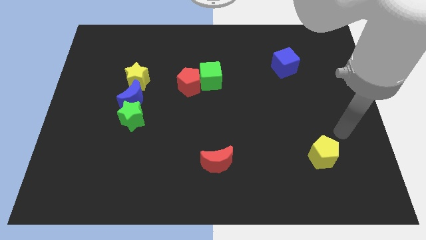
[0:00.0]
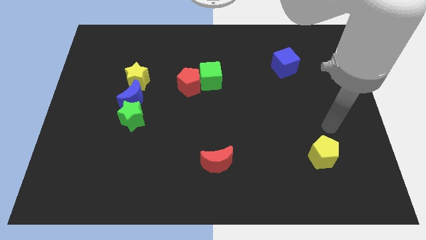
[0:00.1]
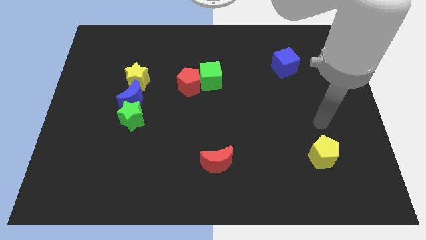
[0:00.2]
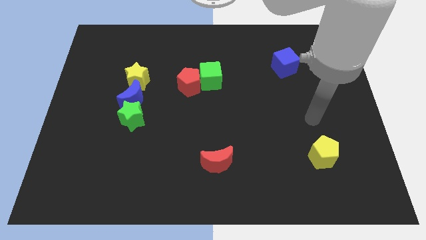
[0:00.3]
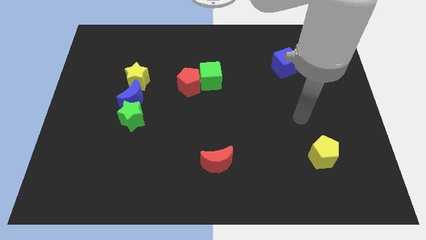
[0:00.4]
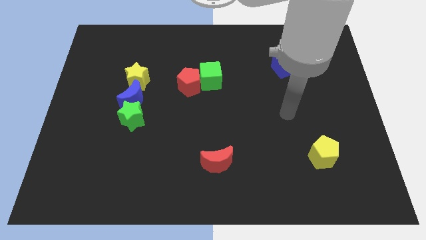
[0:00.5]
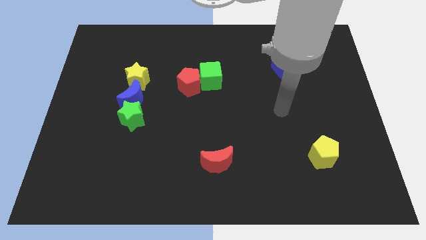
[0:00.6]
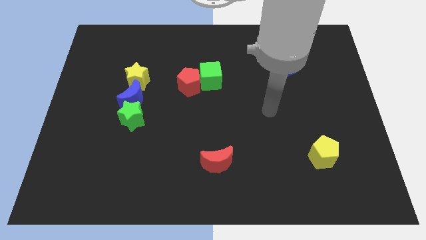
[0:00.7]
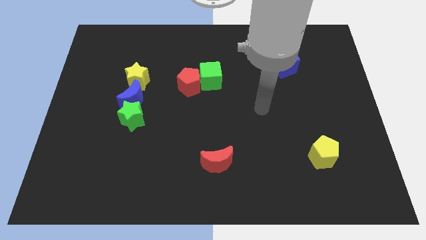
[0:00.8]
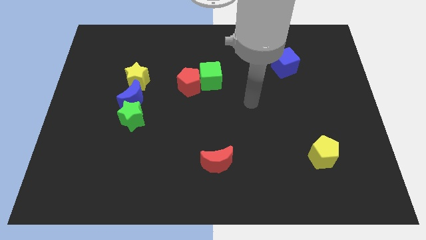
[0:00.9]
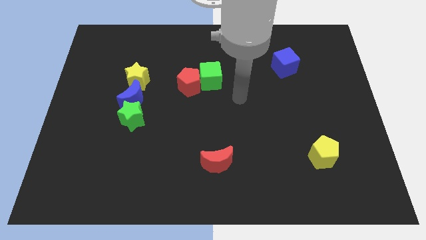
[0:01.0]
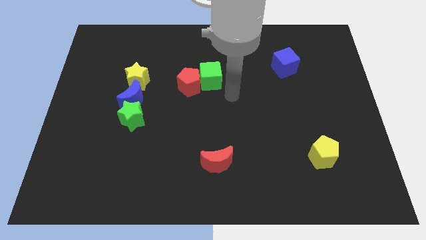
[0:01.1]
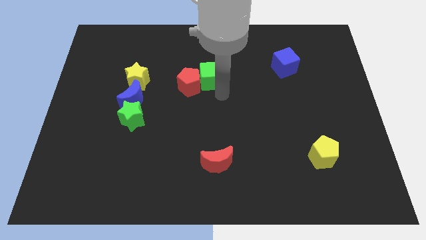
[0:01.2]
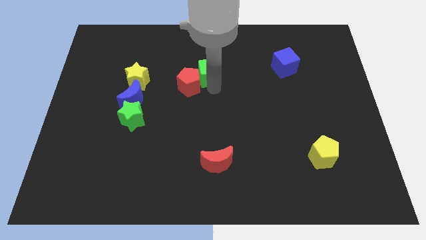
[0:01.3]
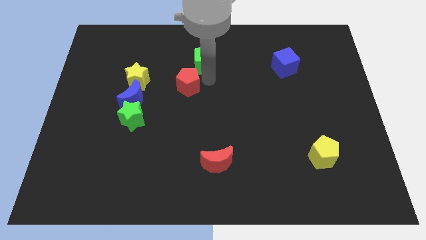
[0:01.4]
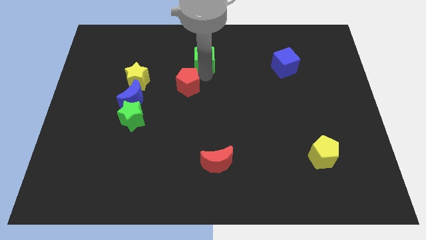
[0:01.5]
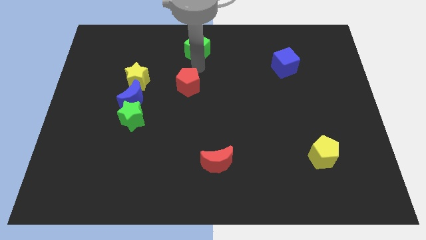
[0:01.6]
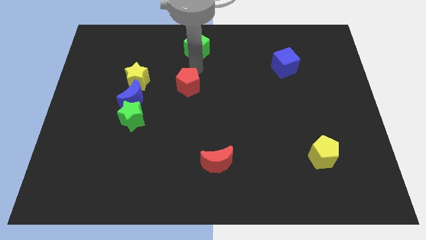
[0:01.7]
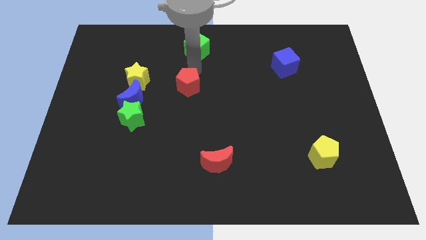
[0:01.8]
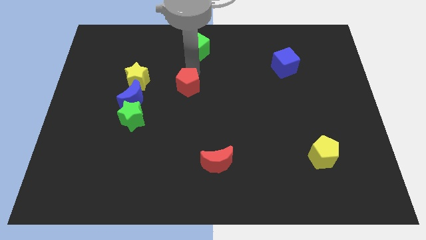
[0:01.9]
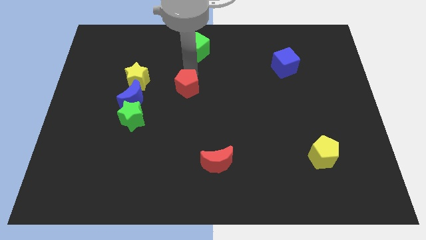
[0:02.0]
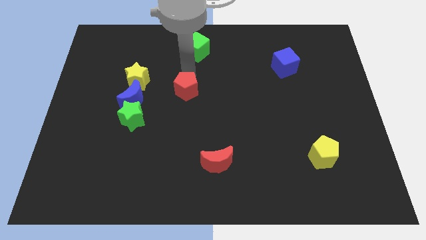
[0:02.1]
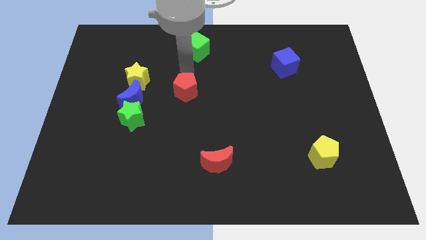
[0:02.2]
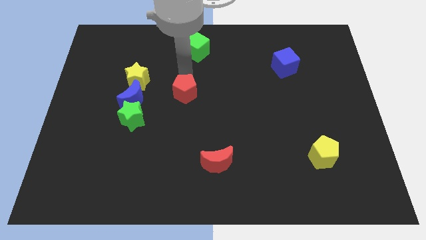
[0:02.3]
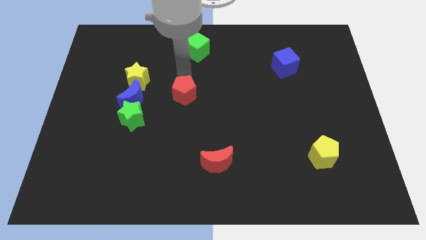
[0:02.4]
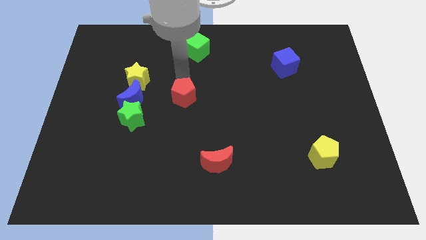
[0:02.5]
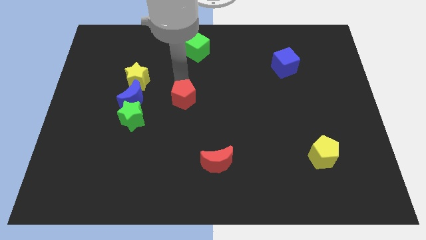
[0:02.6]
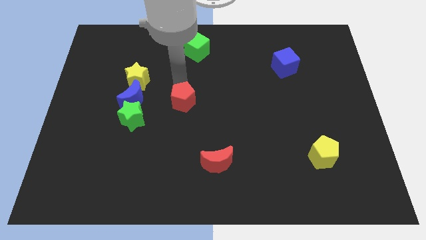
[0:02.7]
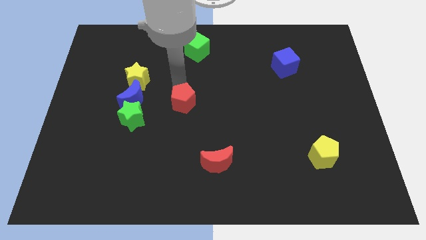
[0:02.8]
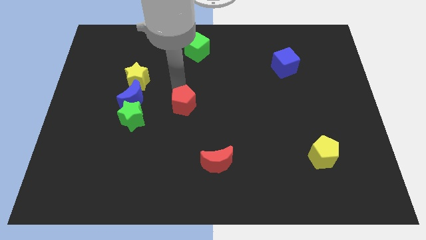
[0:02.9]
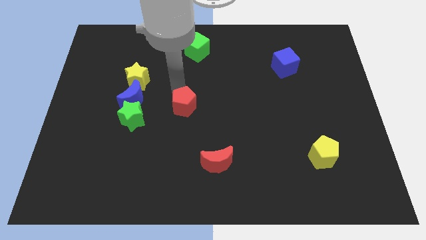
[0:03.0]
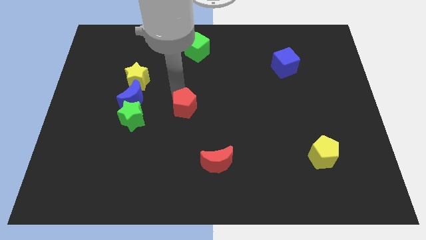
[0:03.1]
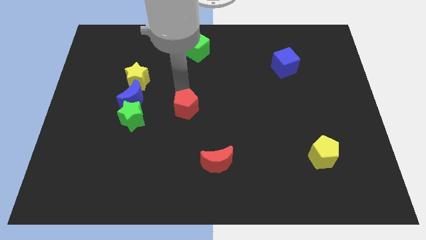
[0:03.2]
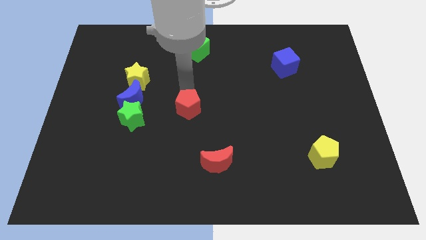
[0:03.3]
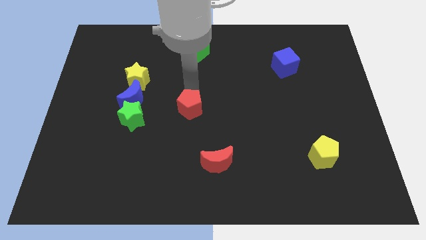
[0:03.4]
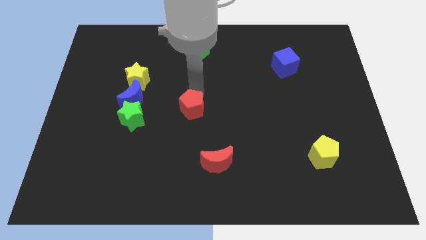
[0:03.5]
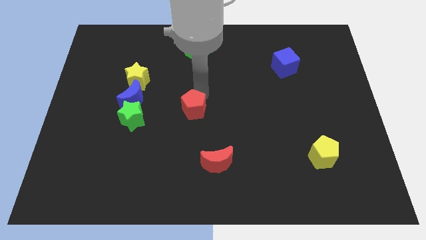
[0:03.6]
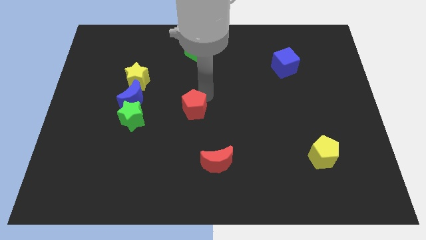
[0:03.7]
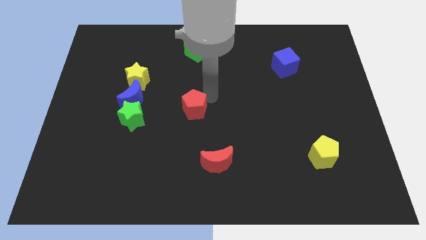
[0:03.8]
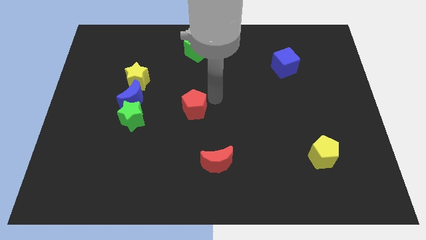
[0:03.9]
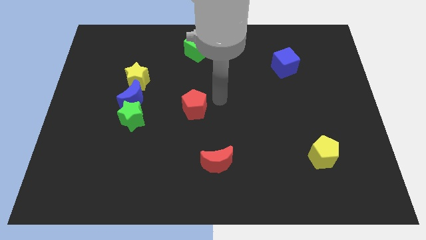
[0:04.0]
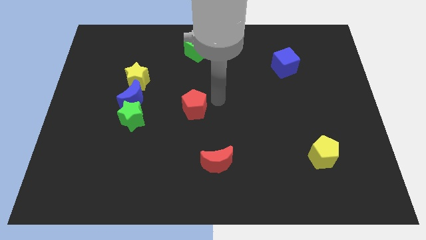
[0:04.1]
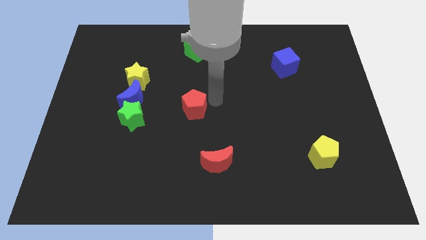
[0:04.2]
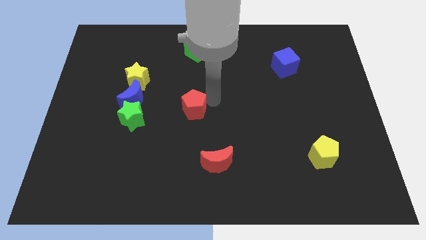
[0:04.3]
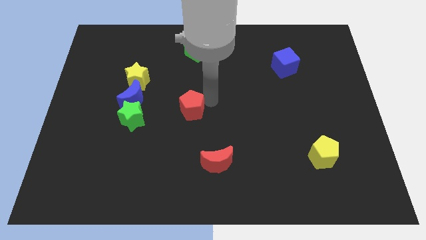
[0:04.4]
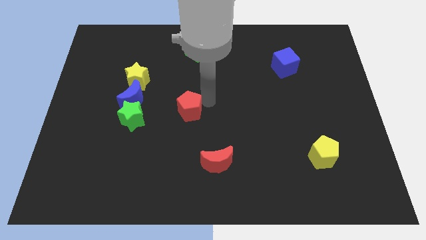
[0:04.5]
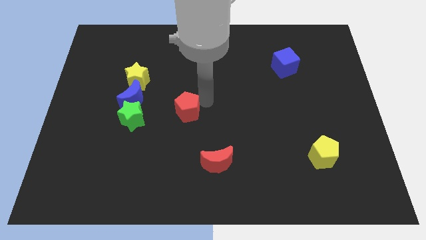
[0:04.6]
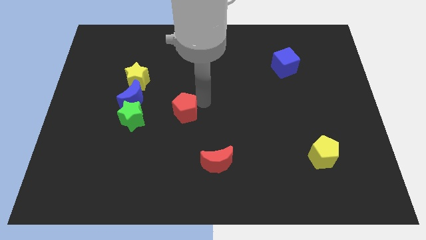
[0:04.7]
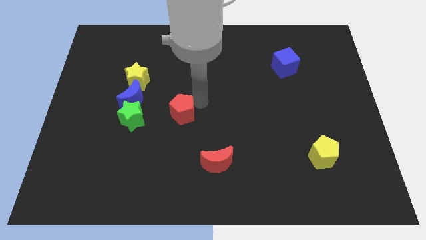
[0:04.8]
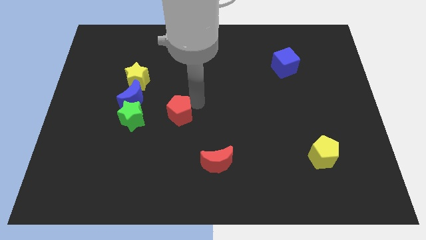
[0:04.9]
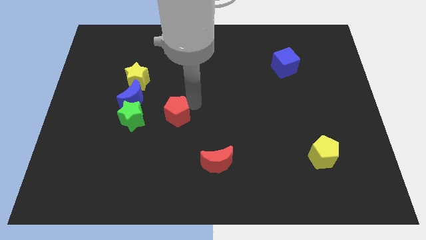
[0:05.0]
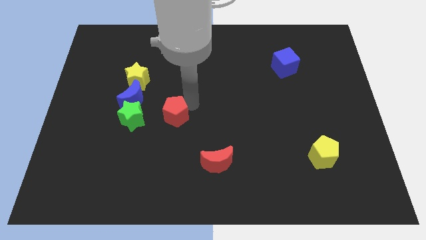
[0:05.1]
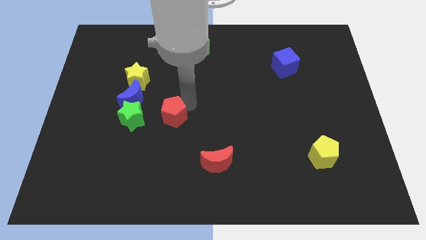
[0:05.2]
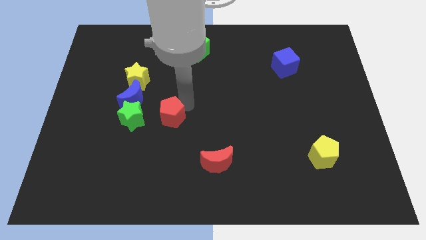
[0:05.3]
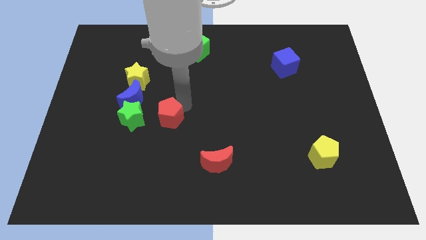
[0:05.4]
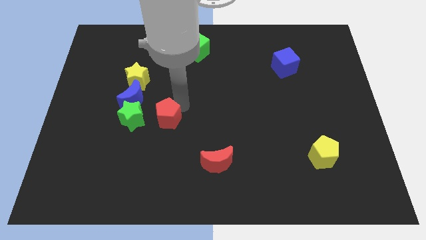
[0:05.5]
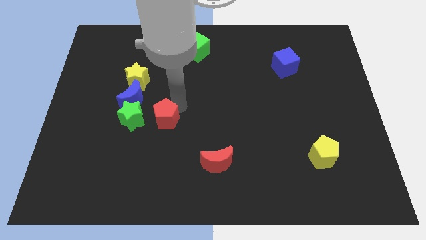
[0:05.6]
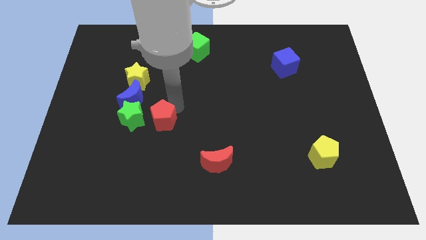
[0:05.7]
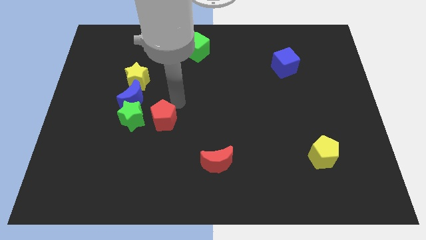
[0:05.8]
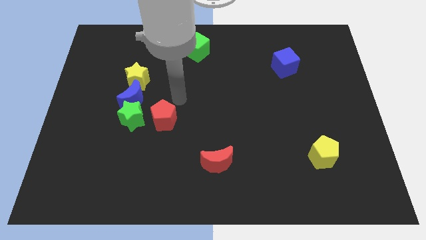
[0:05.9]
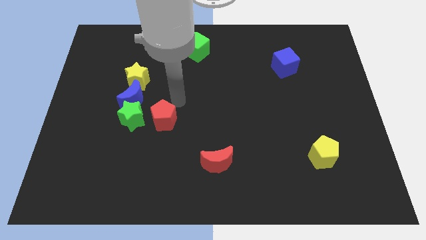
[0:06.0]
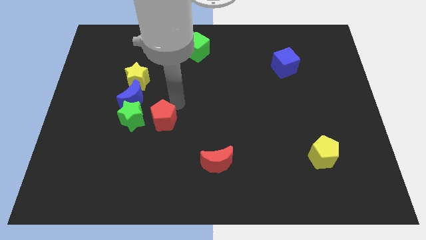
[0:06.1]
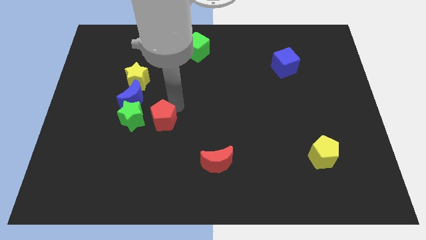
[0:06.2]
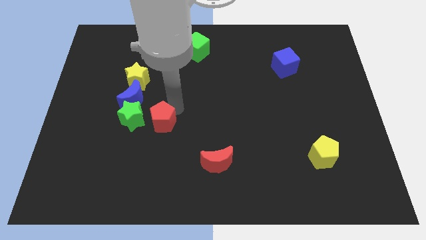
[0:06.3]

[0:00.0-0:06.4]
slide the red pentagon diagonally down and to the right of the green star

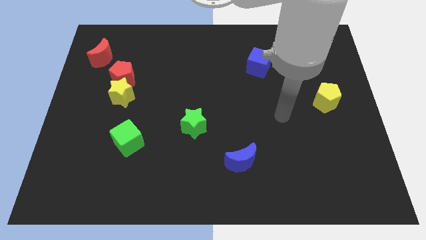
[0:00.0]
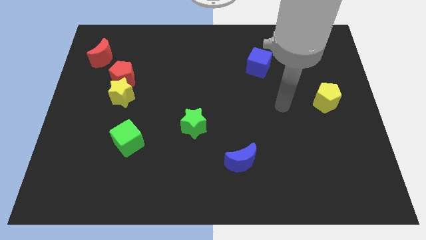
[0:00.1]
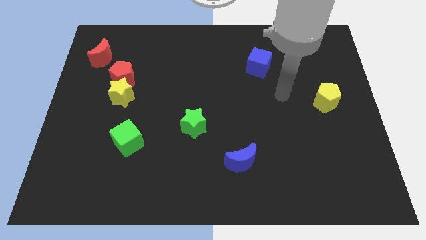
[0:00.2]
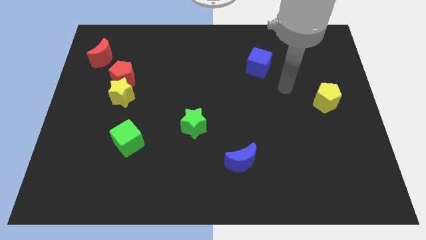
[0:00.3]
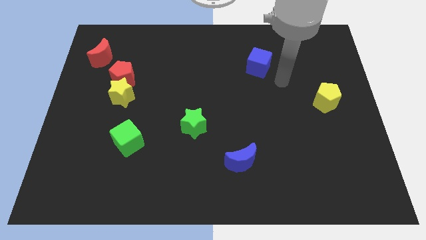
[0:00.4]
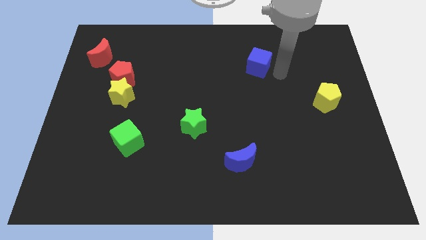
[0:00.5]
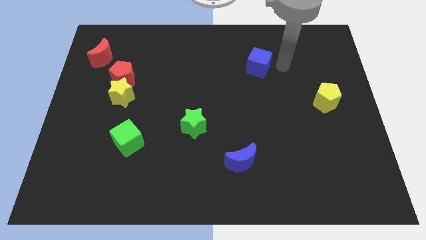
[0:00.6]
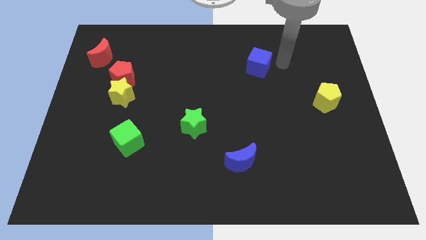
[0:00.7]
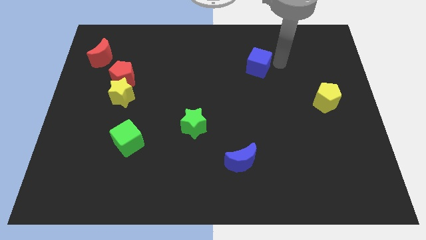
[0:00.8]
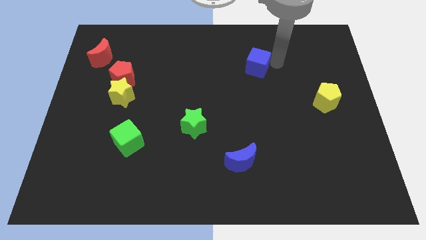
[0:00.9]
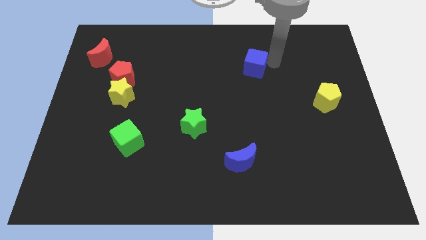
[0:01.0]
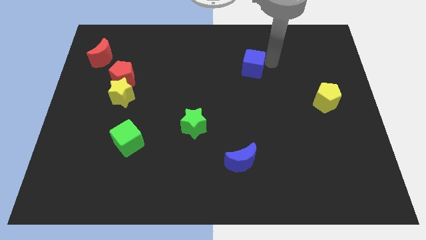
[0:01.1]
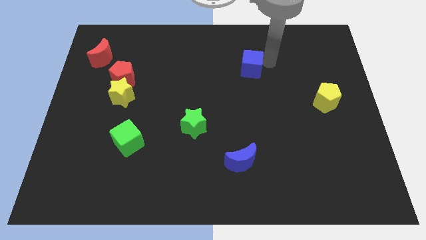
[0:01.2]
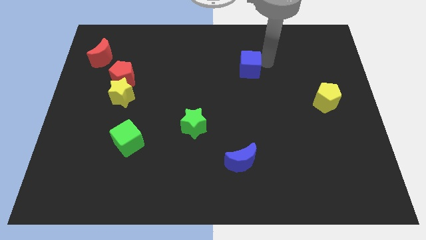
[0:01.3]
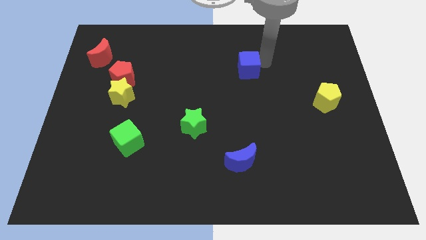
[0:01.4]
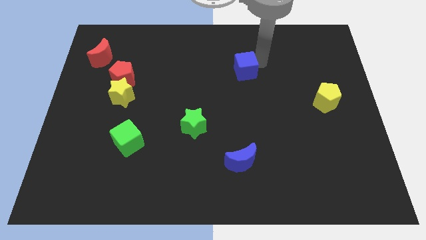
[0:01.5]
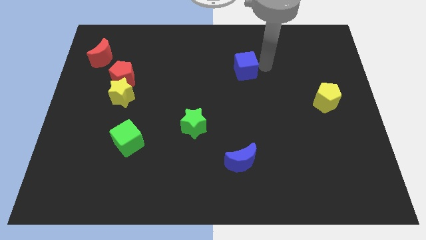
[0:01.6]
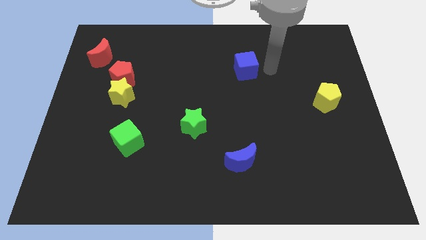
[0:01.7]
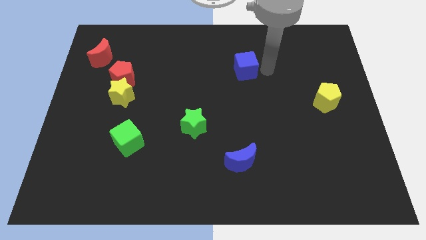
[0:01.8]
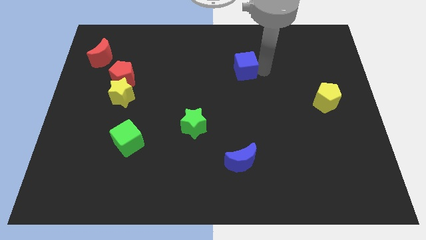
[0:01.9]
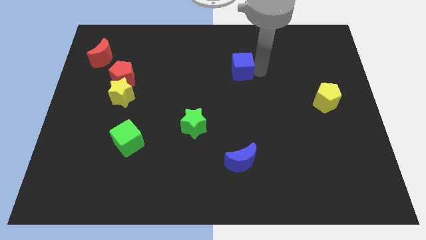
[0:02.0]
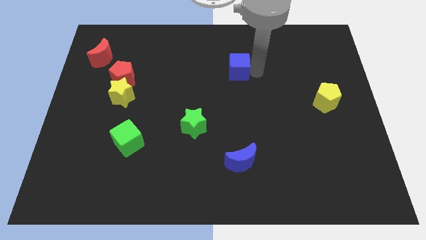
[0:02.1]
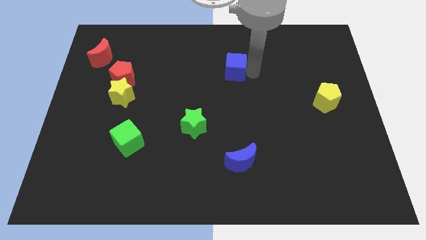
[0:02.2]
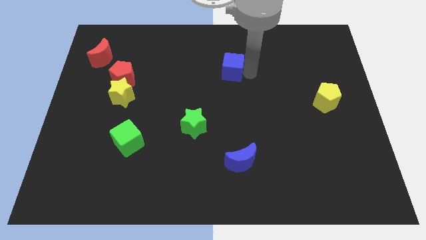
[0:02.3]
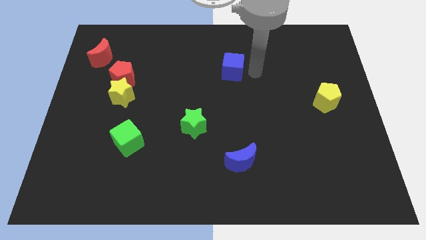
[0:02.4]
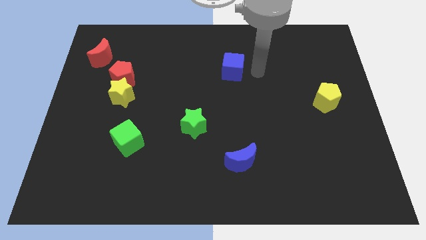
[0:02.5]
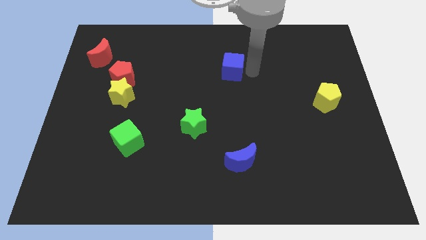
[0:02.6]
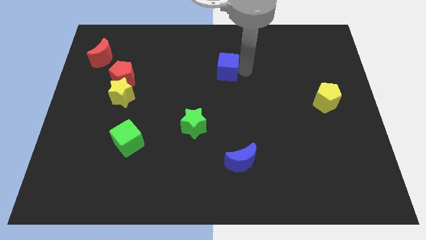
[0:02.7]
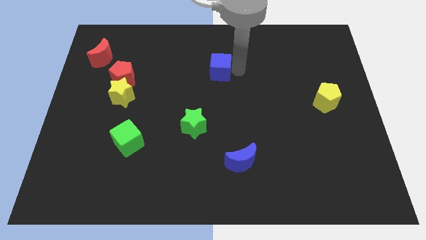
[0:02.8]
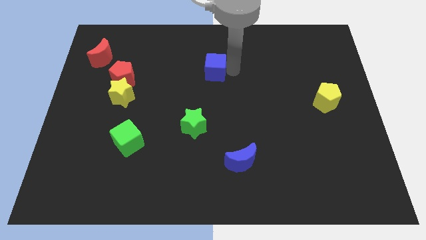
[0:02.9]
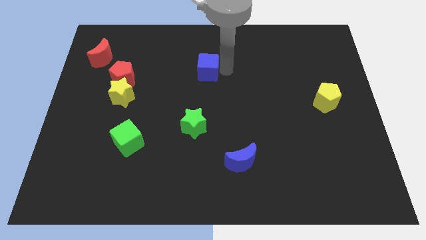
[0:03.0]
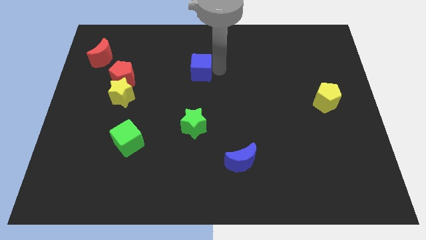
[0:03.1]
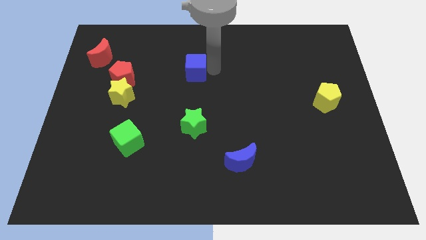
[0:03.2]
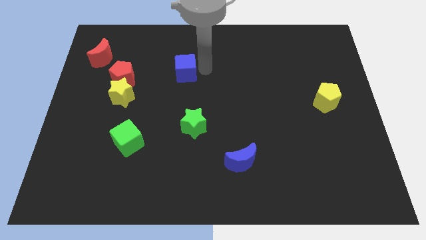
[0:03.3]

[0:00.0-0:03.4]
push the blue cube to the right of the red pentagon
